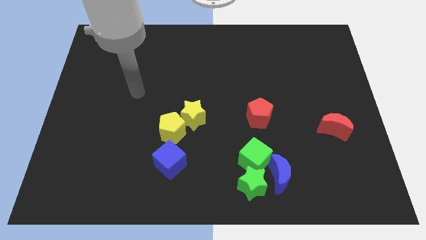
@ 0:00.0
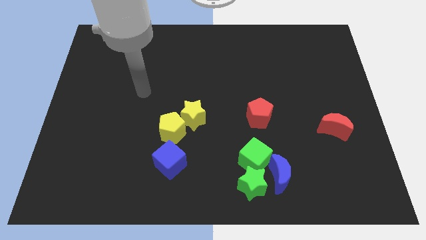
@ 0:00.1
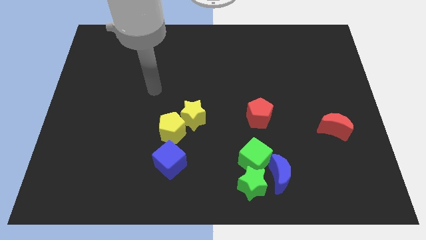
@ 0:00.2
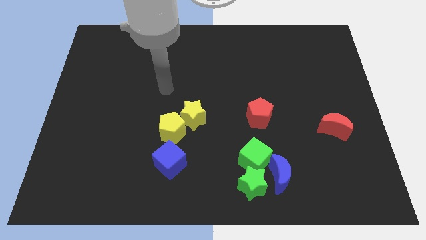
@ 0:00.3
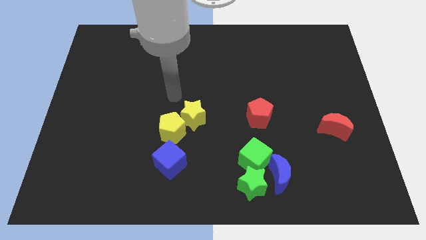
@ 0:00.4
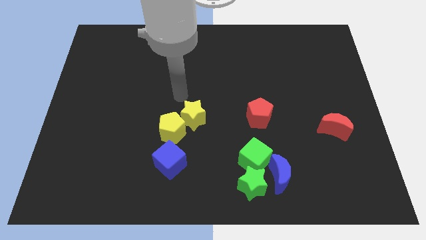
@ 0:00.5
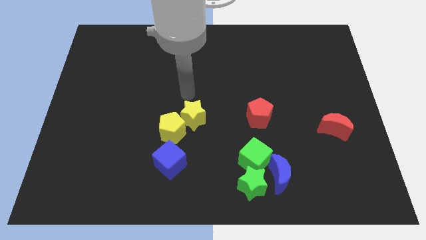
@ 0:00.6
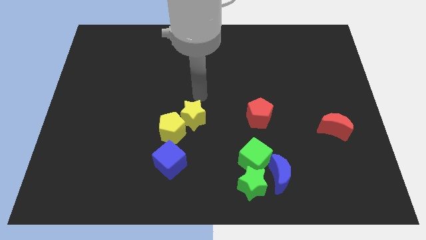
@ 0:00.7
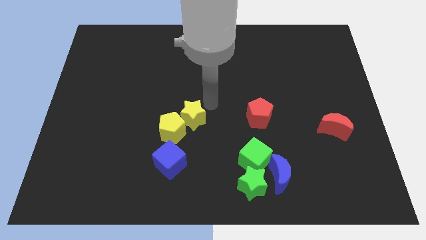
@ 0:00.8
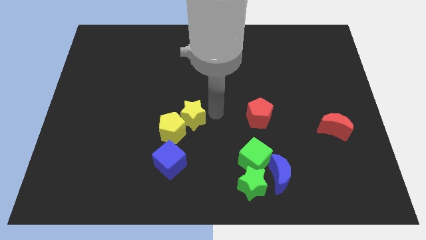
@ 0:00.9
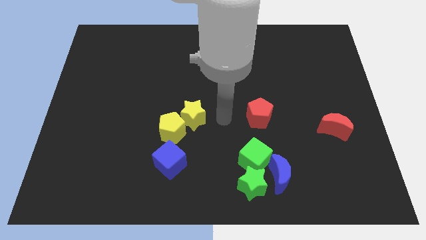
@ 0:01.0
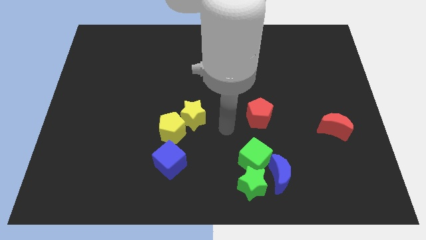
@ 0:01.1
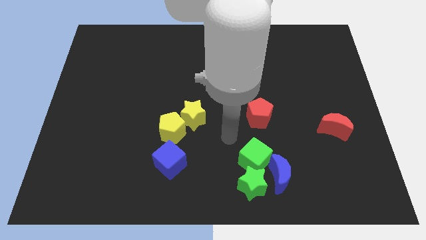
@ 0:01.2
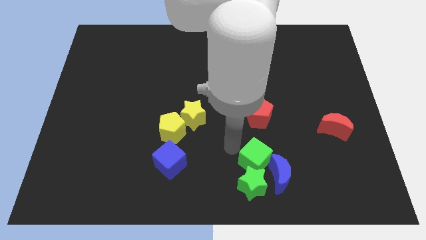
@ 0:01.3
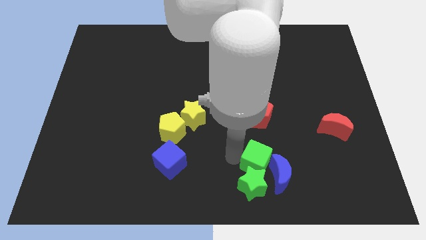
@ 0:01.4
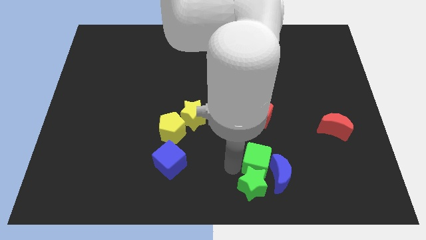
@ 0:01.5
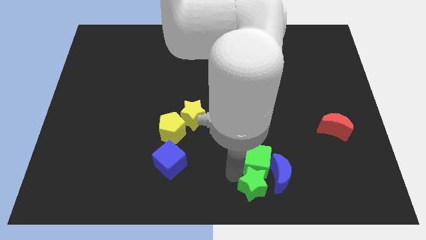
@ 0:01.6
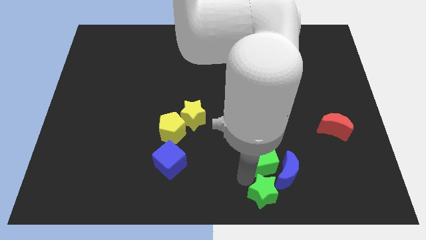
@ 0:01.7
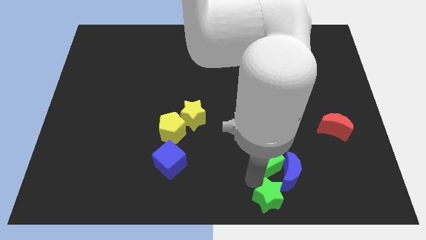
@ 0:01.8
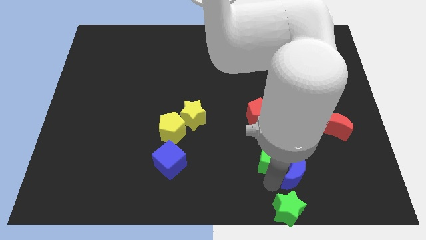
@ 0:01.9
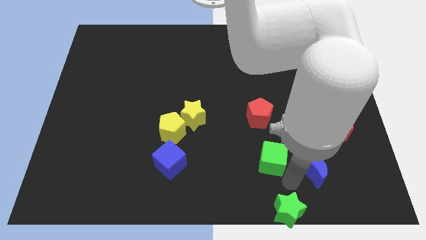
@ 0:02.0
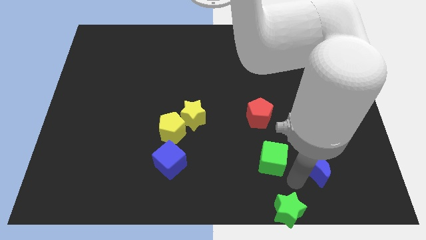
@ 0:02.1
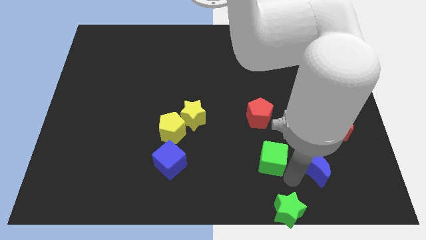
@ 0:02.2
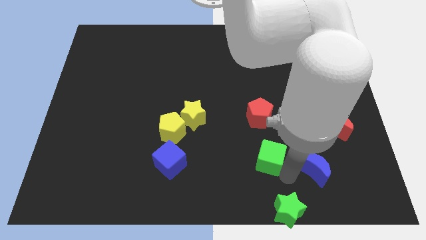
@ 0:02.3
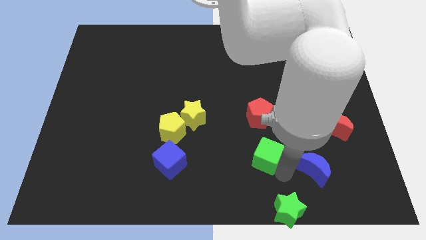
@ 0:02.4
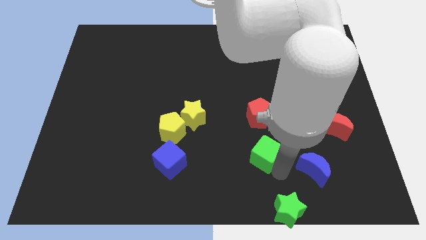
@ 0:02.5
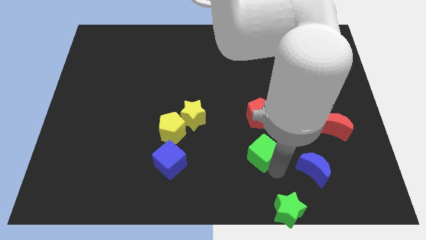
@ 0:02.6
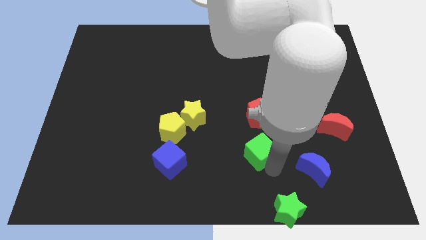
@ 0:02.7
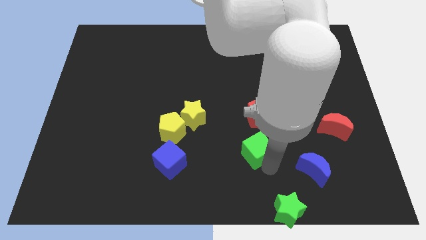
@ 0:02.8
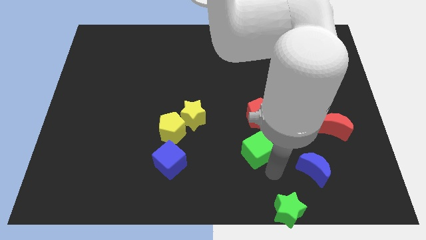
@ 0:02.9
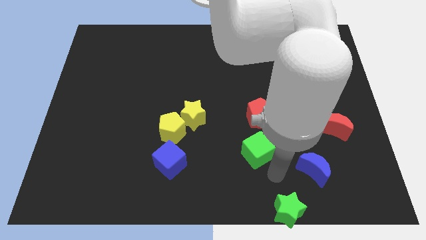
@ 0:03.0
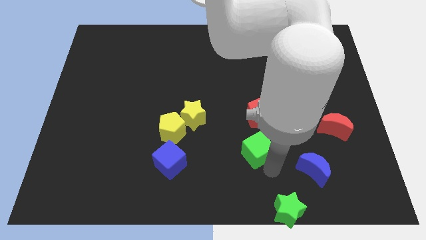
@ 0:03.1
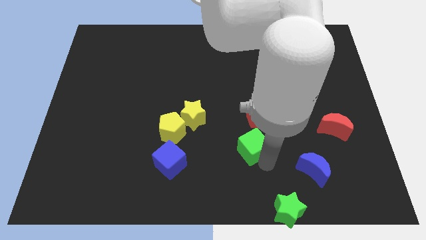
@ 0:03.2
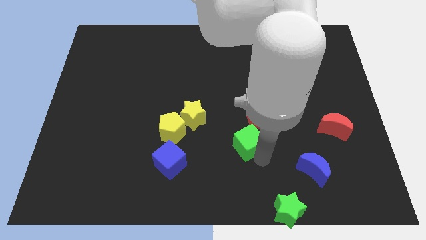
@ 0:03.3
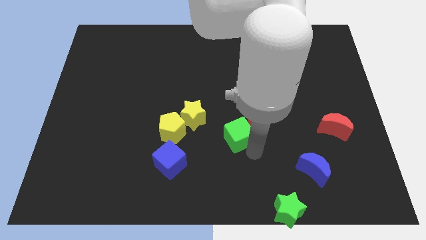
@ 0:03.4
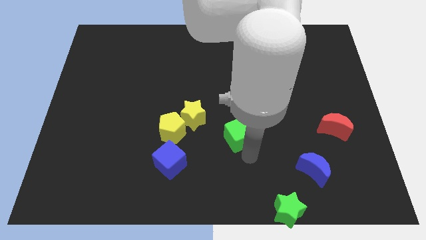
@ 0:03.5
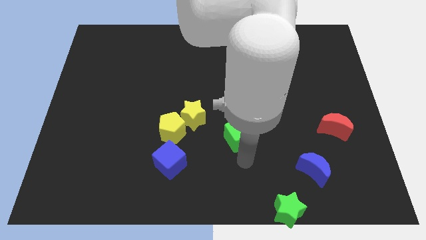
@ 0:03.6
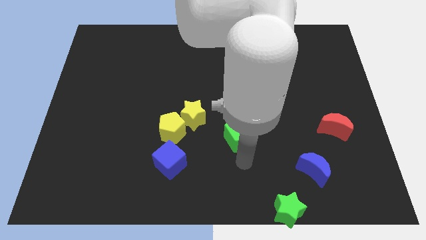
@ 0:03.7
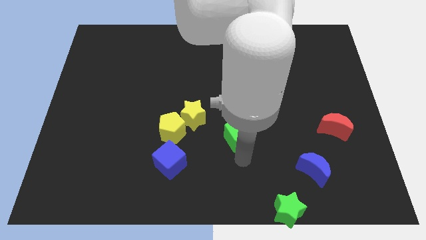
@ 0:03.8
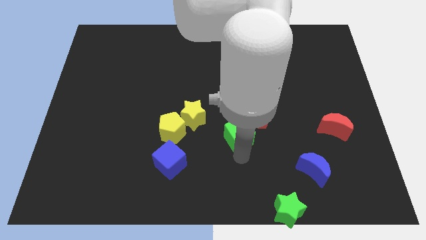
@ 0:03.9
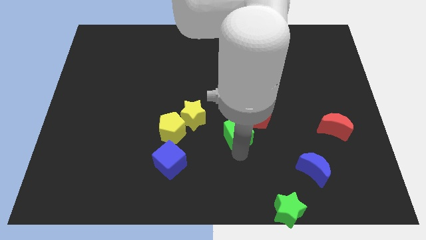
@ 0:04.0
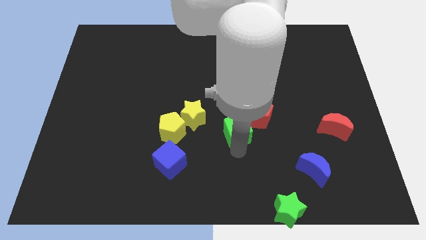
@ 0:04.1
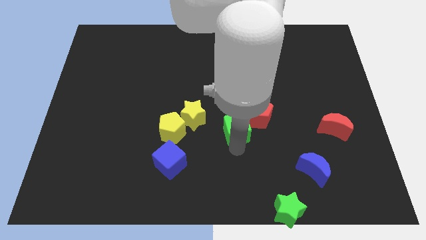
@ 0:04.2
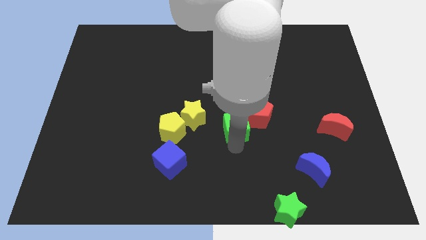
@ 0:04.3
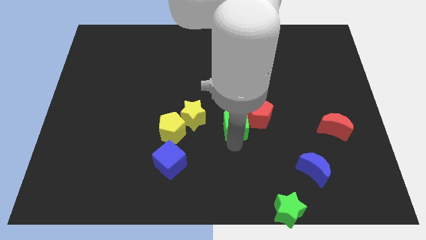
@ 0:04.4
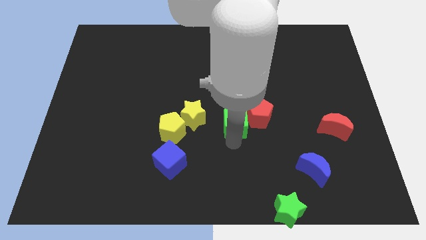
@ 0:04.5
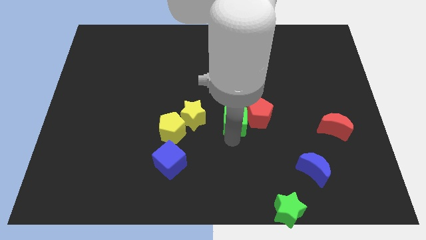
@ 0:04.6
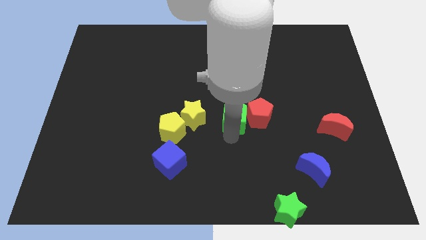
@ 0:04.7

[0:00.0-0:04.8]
push the green cube to the top left side of the red pentagon

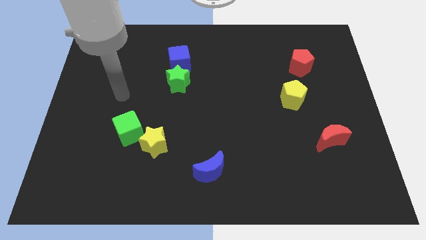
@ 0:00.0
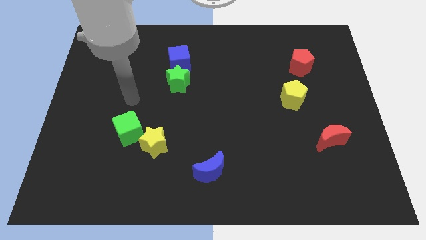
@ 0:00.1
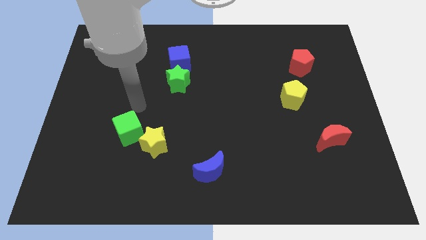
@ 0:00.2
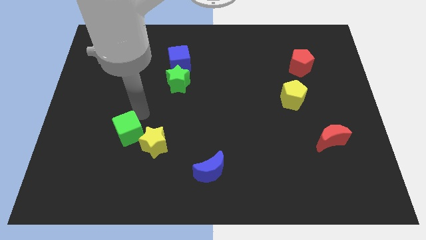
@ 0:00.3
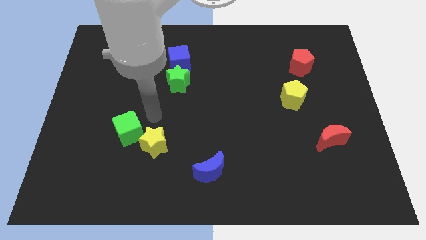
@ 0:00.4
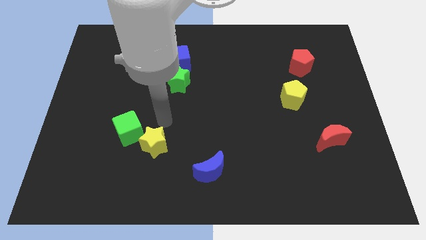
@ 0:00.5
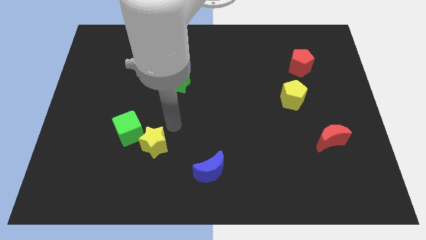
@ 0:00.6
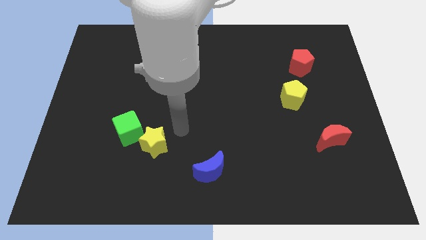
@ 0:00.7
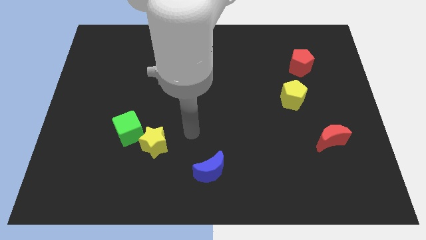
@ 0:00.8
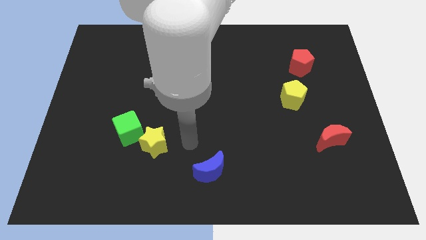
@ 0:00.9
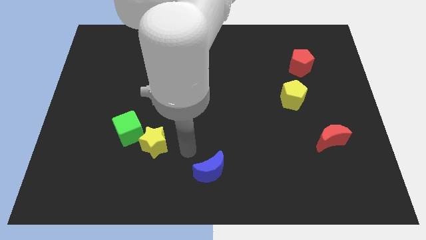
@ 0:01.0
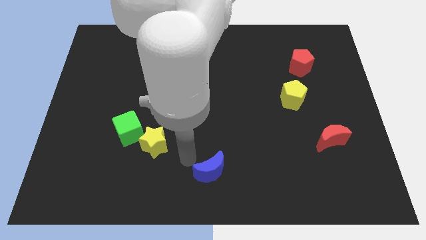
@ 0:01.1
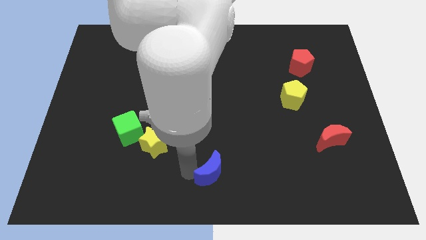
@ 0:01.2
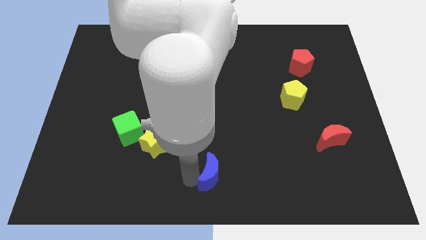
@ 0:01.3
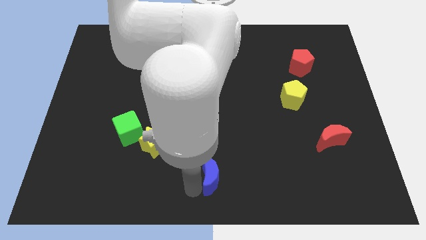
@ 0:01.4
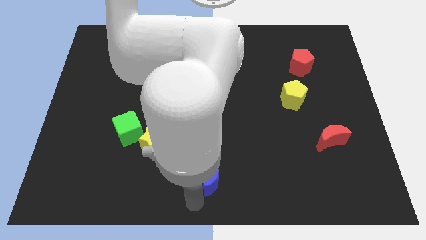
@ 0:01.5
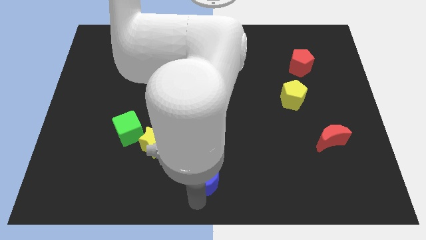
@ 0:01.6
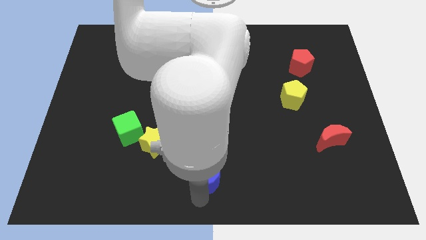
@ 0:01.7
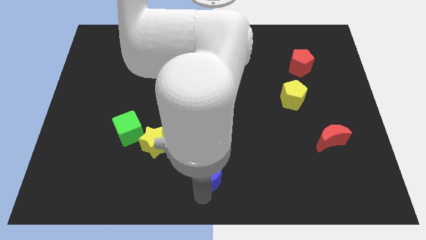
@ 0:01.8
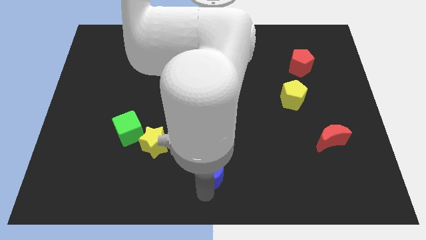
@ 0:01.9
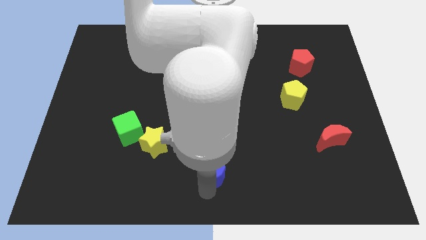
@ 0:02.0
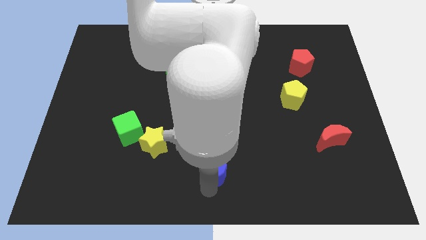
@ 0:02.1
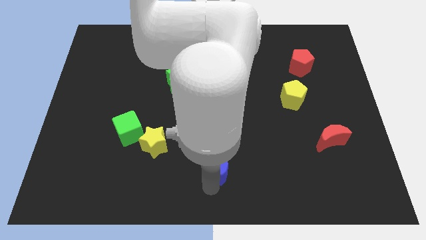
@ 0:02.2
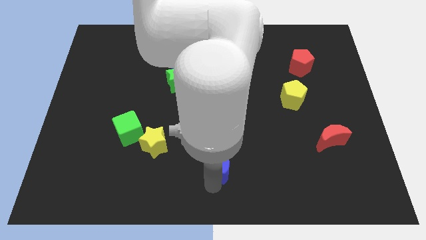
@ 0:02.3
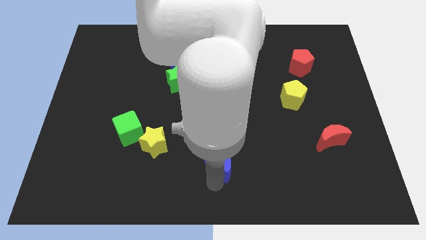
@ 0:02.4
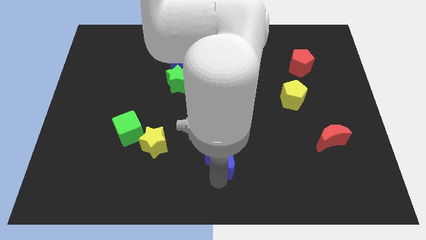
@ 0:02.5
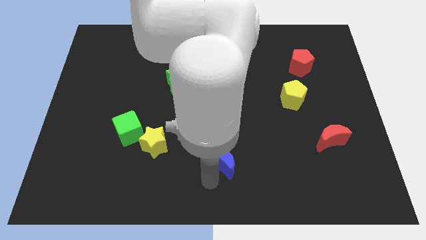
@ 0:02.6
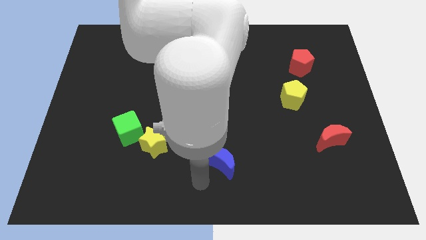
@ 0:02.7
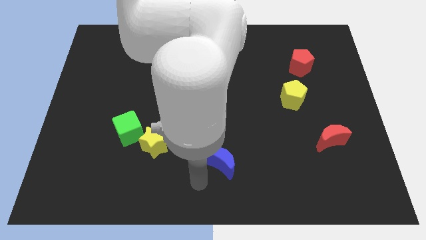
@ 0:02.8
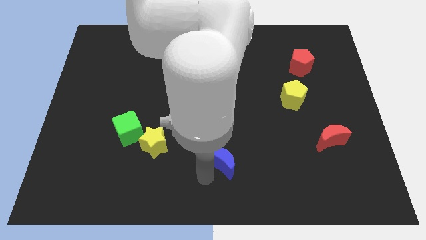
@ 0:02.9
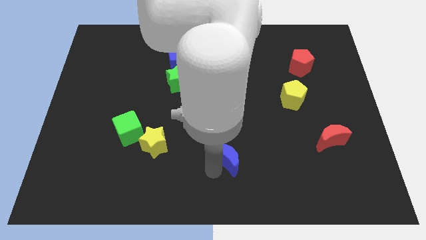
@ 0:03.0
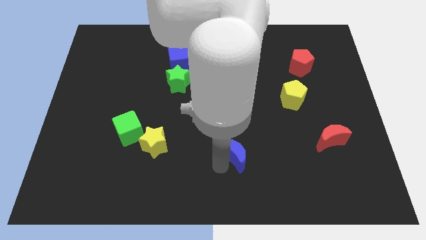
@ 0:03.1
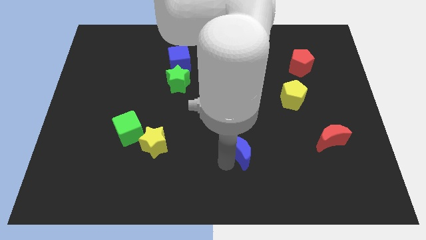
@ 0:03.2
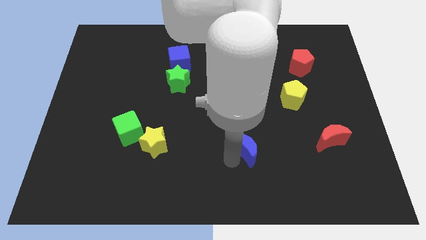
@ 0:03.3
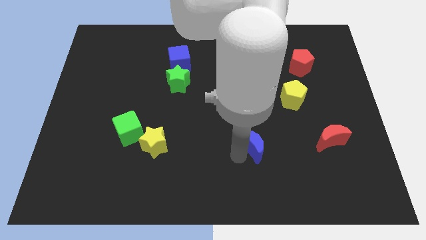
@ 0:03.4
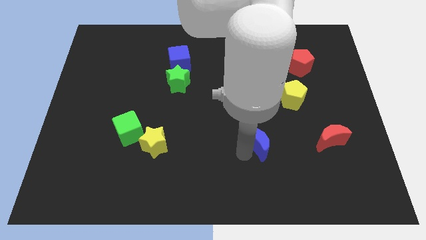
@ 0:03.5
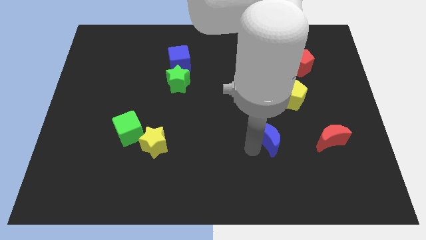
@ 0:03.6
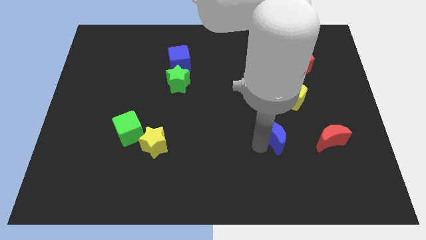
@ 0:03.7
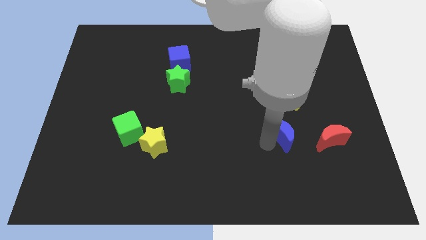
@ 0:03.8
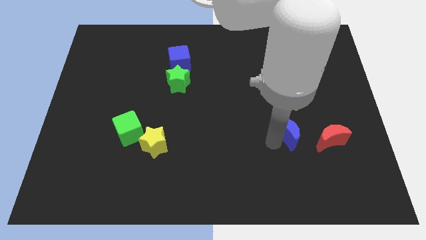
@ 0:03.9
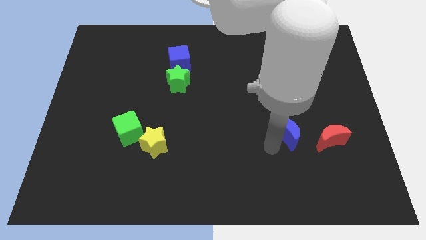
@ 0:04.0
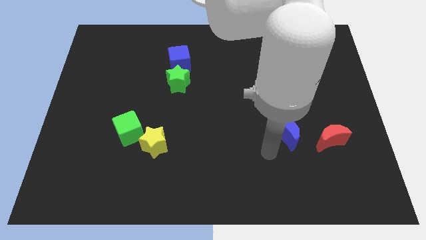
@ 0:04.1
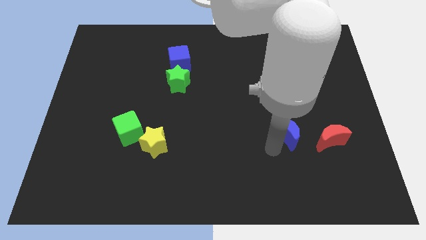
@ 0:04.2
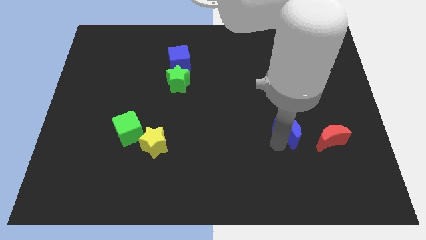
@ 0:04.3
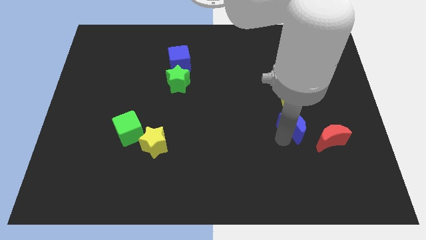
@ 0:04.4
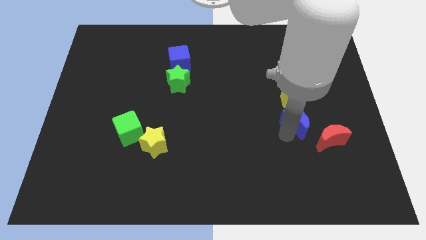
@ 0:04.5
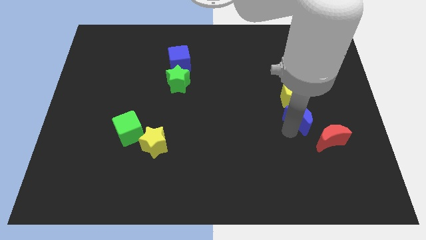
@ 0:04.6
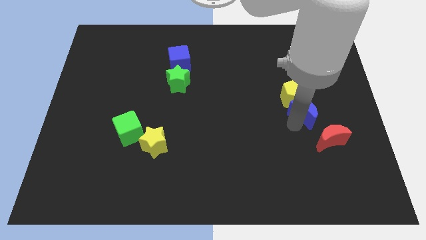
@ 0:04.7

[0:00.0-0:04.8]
move the blue moon to the top side of the red moon
